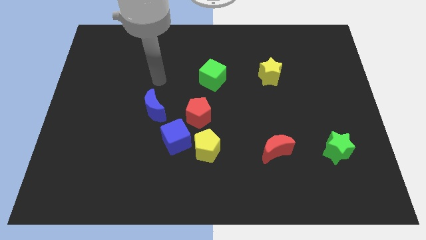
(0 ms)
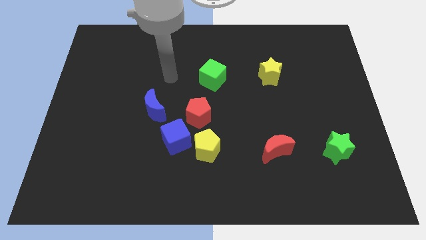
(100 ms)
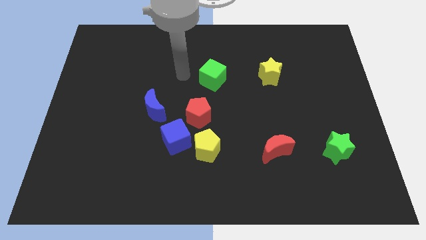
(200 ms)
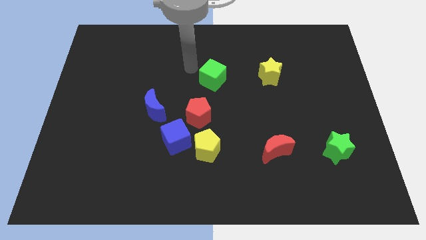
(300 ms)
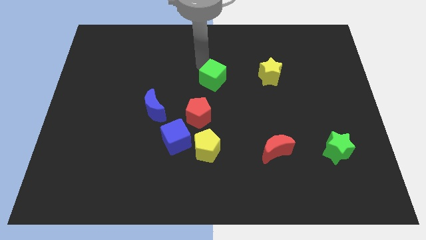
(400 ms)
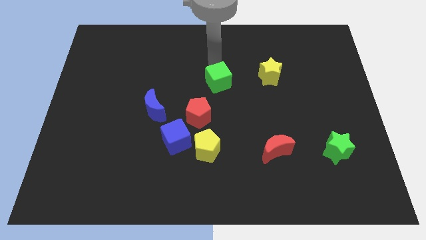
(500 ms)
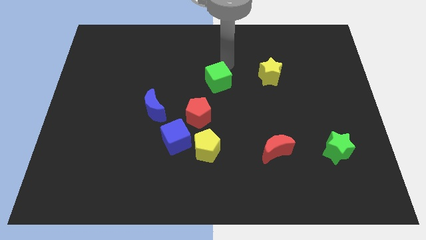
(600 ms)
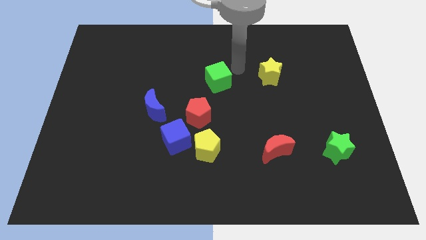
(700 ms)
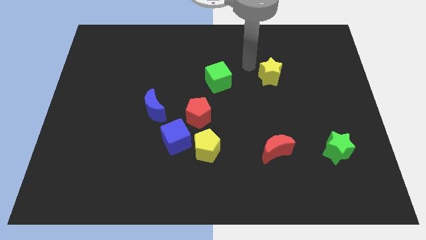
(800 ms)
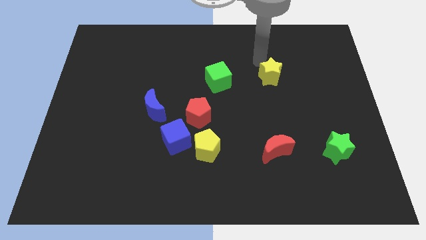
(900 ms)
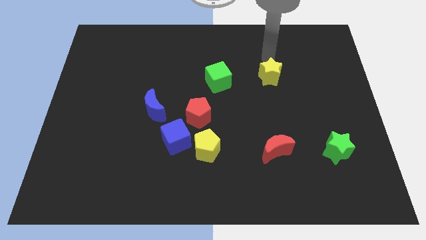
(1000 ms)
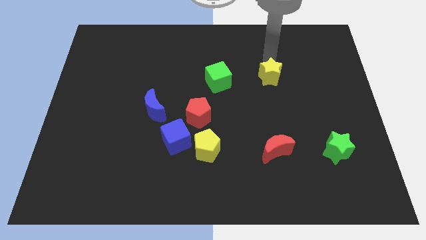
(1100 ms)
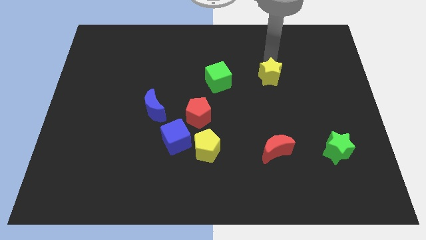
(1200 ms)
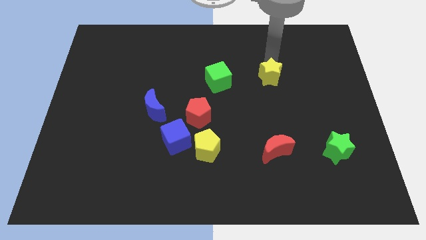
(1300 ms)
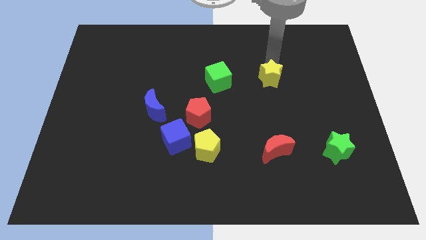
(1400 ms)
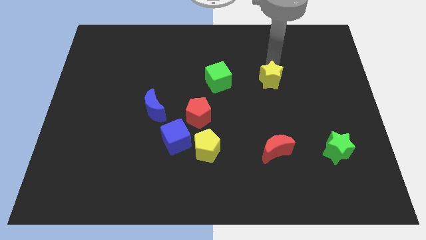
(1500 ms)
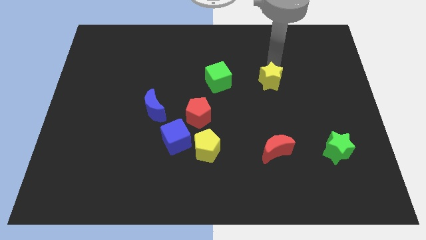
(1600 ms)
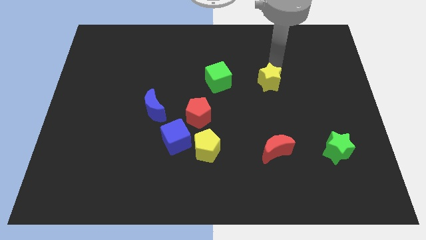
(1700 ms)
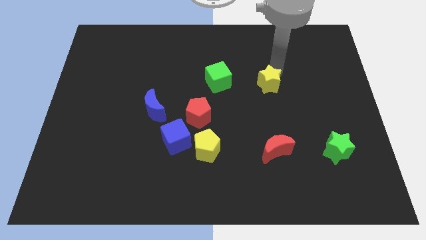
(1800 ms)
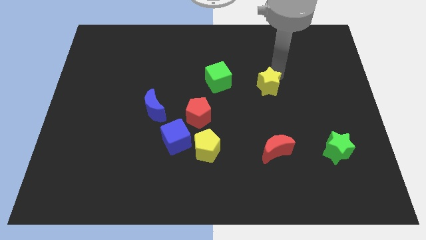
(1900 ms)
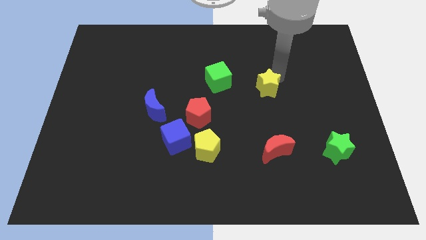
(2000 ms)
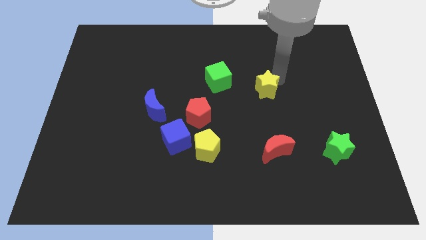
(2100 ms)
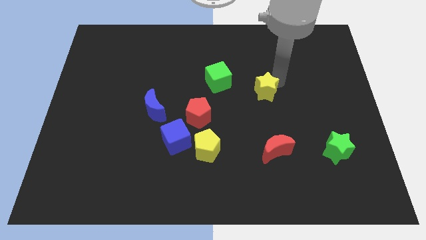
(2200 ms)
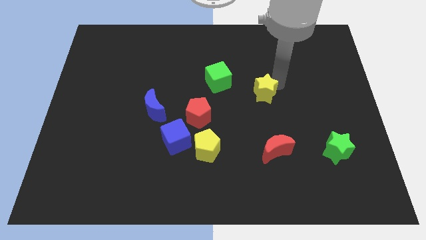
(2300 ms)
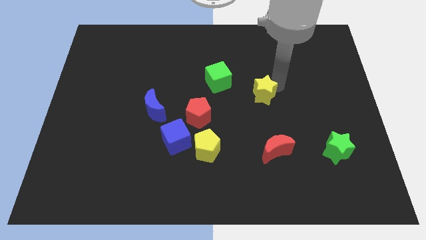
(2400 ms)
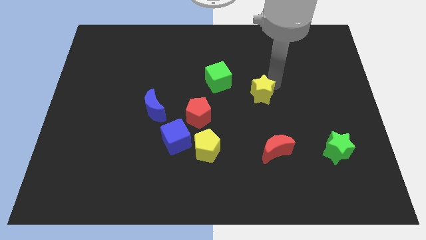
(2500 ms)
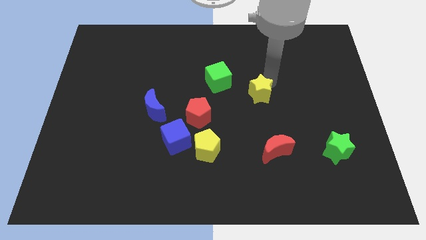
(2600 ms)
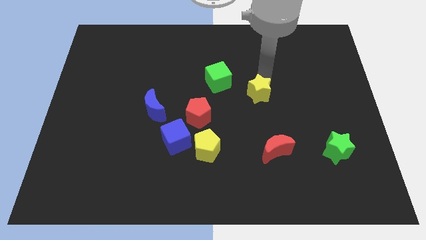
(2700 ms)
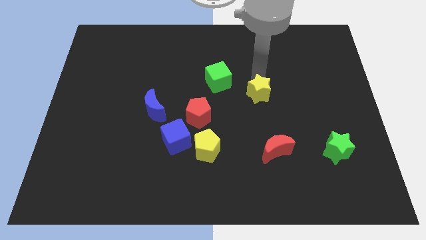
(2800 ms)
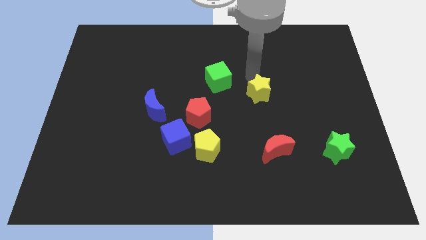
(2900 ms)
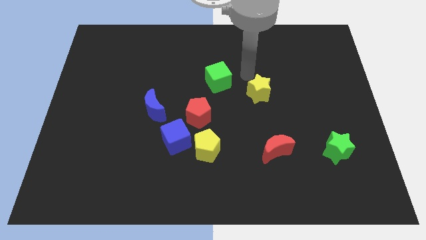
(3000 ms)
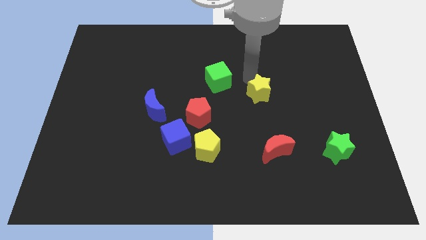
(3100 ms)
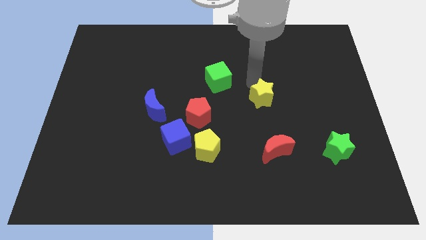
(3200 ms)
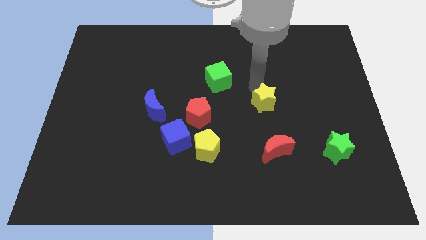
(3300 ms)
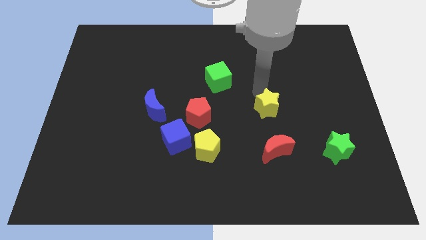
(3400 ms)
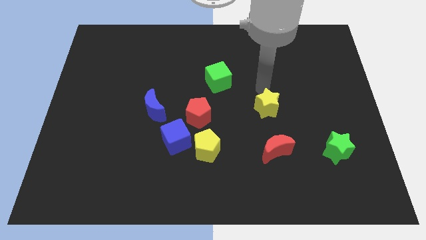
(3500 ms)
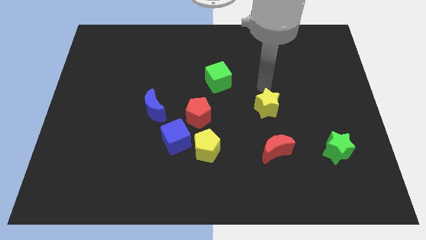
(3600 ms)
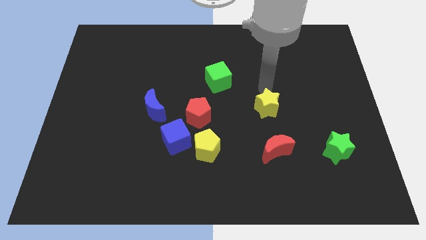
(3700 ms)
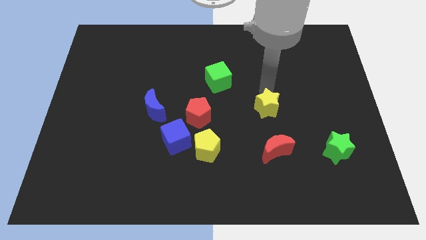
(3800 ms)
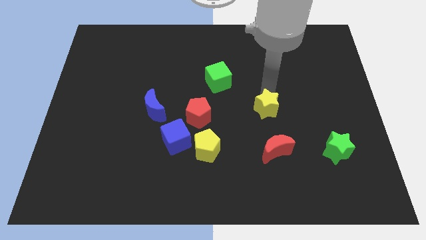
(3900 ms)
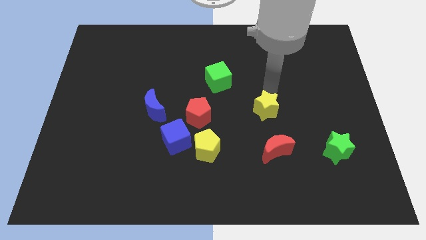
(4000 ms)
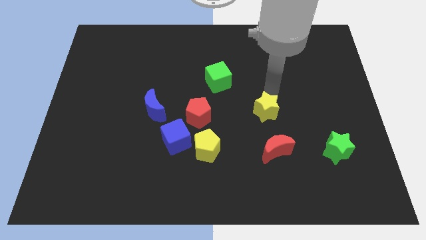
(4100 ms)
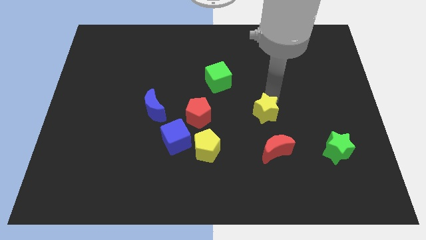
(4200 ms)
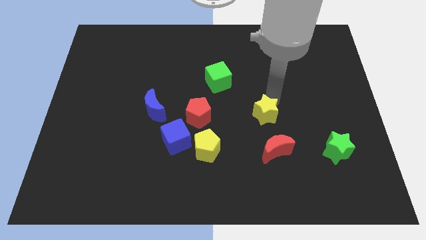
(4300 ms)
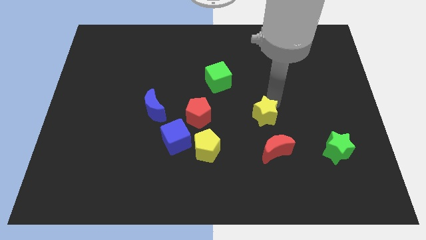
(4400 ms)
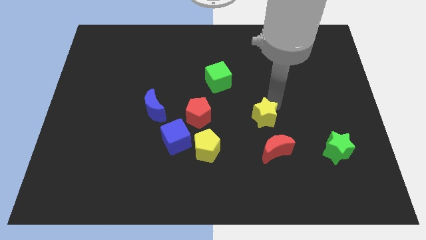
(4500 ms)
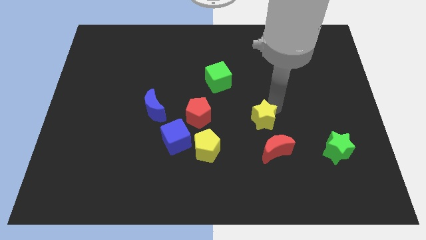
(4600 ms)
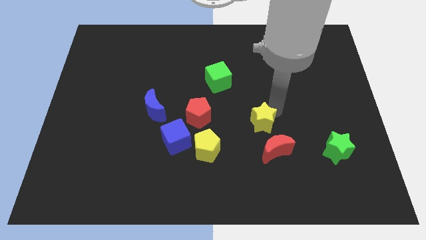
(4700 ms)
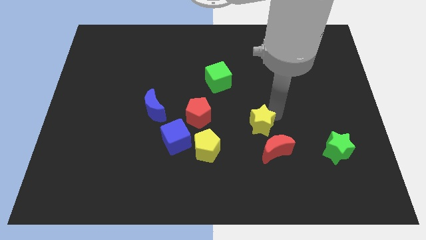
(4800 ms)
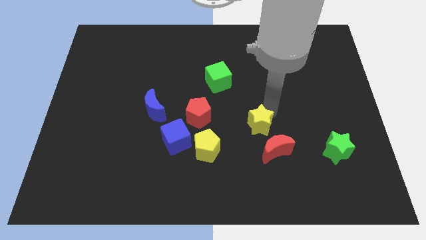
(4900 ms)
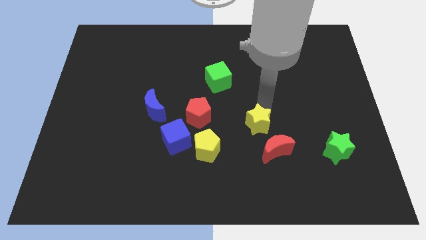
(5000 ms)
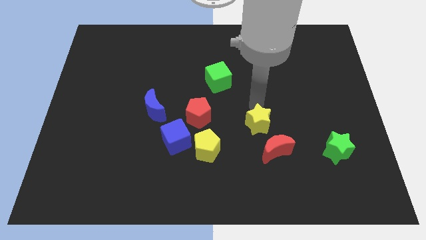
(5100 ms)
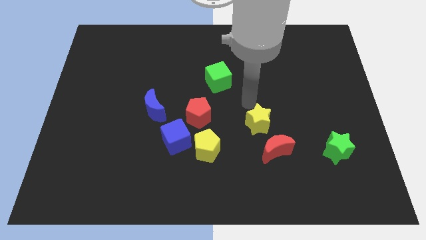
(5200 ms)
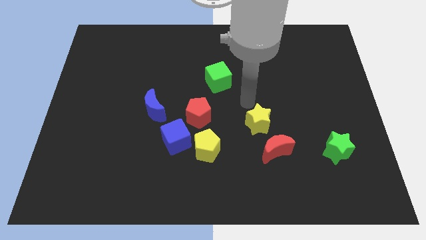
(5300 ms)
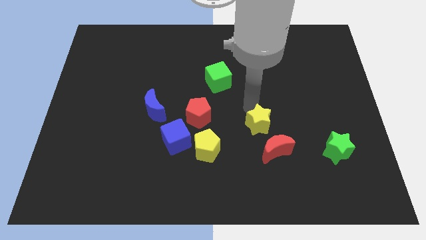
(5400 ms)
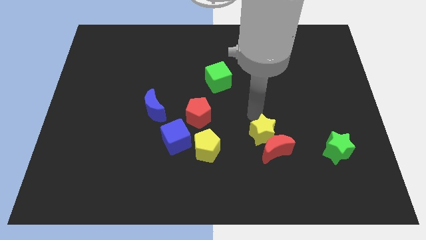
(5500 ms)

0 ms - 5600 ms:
move the yellow star close to the red moon

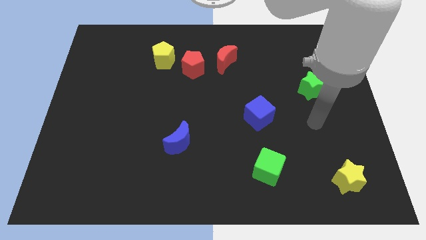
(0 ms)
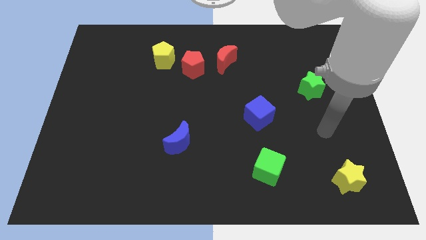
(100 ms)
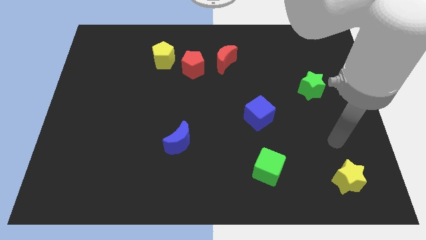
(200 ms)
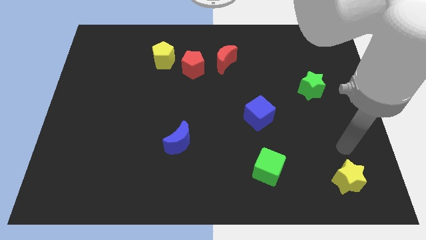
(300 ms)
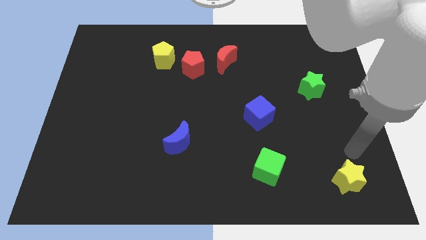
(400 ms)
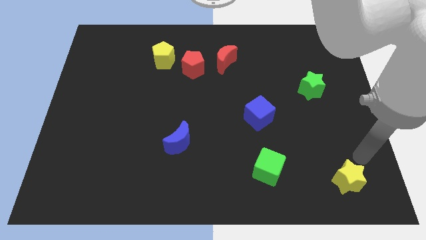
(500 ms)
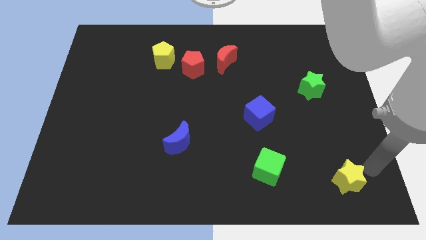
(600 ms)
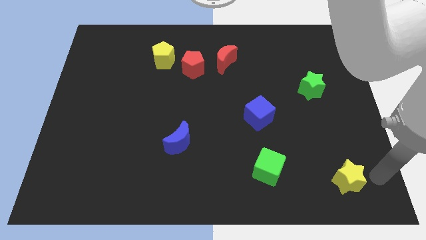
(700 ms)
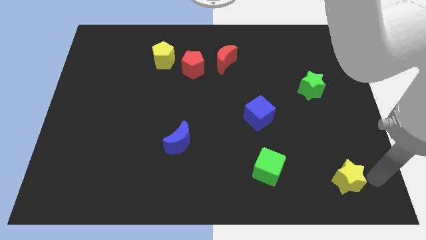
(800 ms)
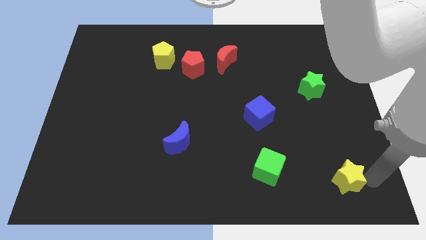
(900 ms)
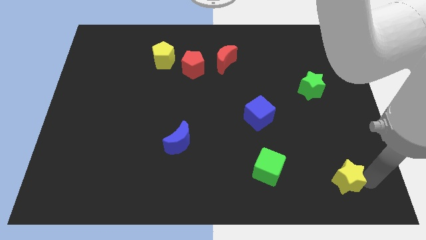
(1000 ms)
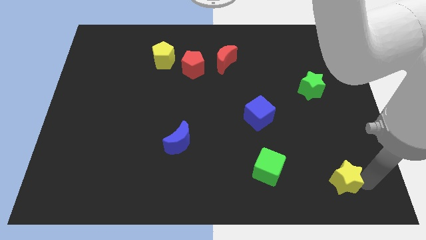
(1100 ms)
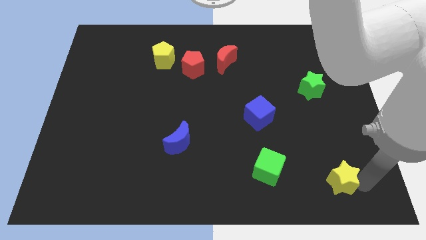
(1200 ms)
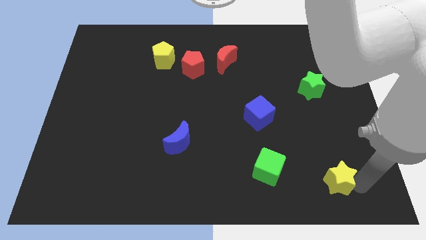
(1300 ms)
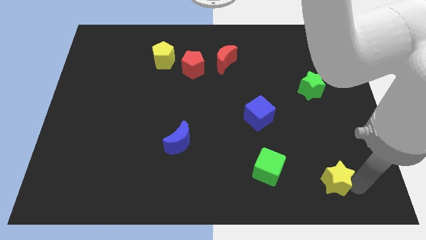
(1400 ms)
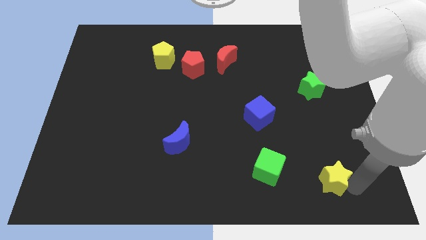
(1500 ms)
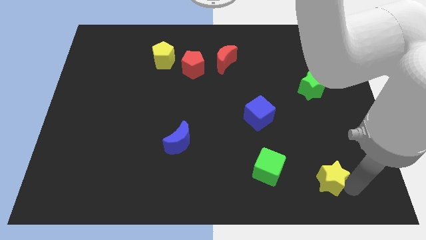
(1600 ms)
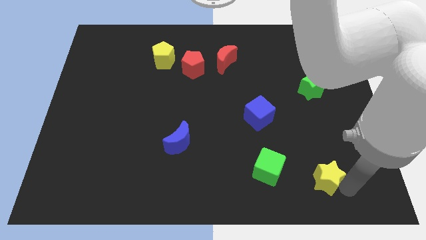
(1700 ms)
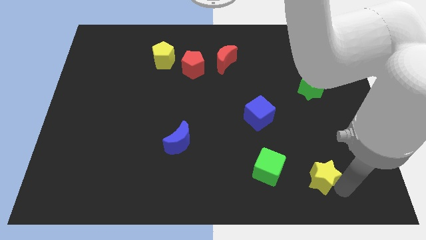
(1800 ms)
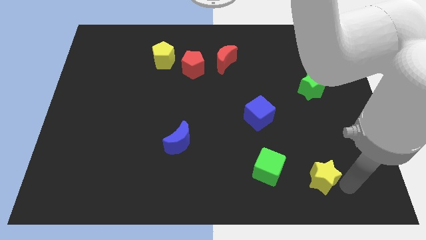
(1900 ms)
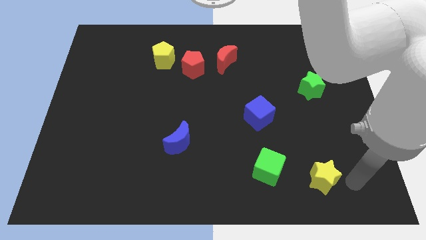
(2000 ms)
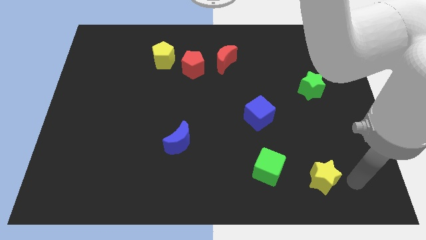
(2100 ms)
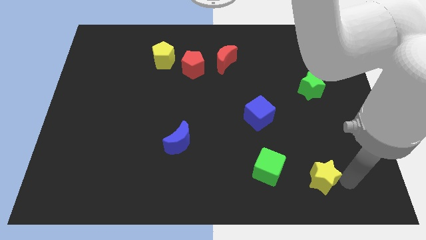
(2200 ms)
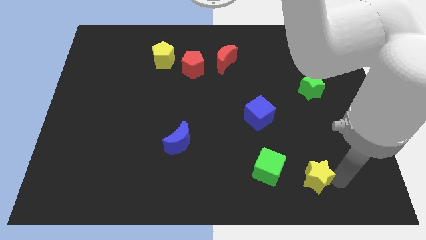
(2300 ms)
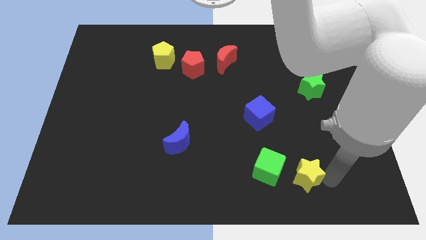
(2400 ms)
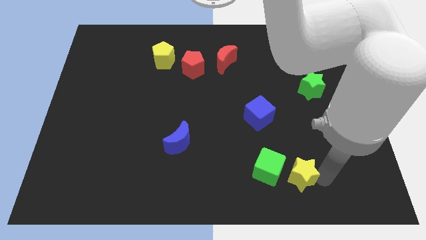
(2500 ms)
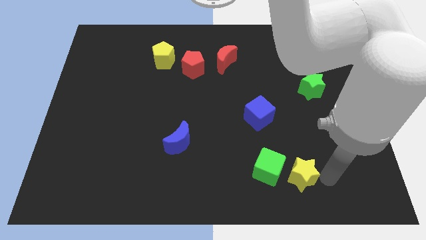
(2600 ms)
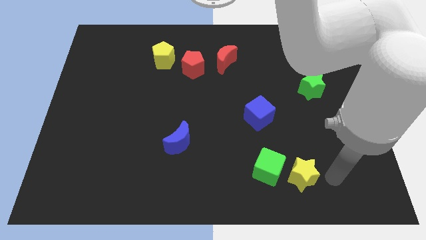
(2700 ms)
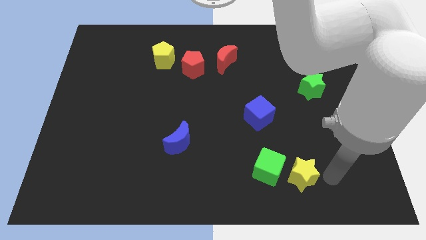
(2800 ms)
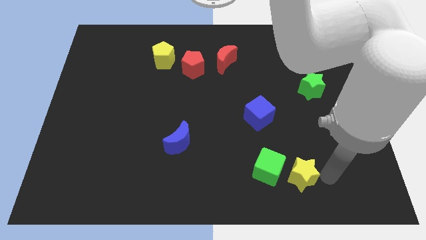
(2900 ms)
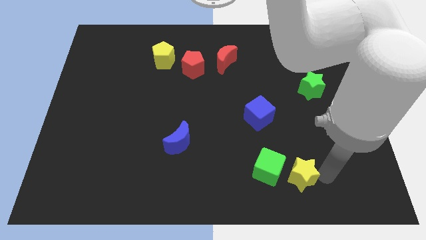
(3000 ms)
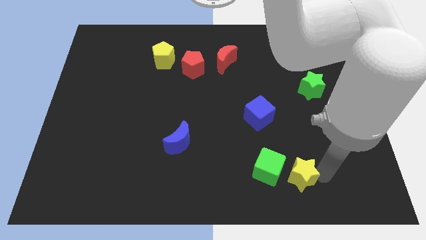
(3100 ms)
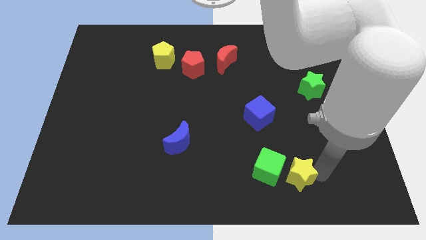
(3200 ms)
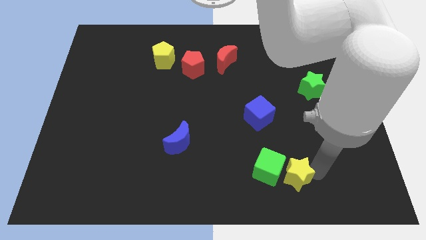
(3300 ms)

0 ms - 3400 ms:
move the yellow star towards the green cube
